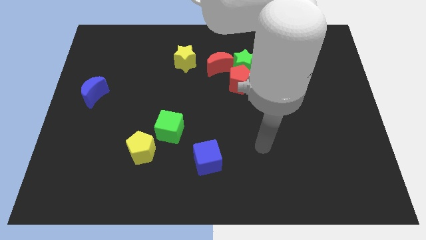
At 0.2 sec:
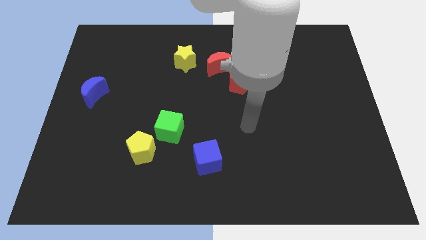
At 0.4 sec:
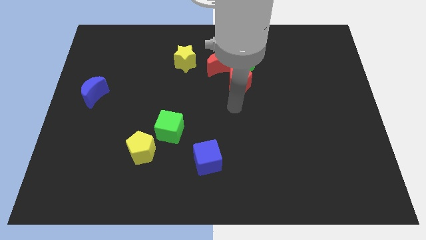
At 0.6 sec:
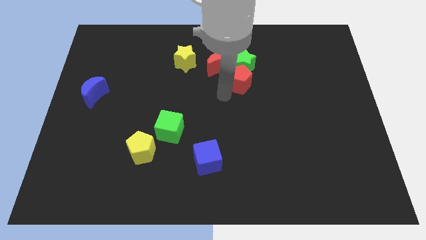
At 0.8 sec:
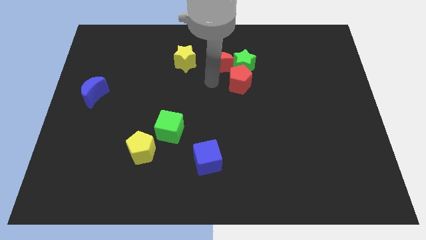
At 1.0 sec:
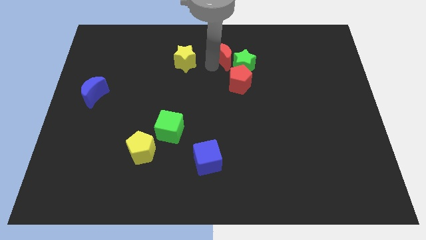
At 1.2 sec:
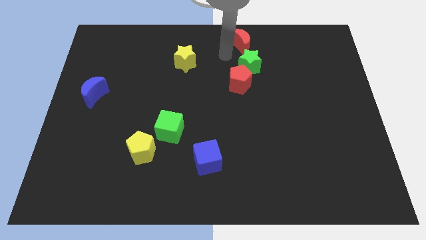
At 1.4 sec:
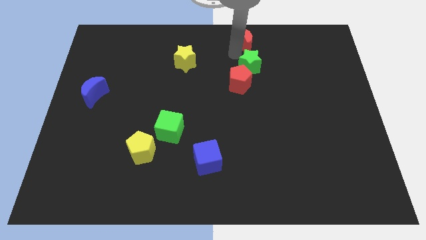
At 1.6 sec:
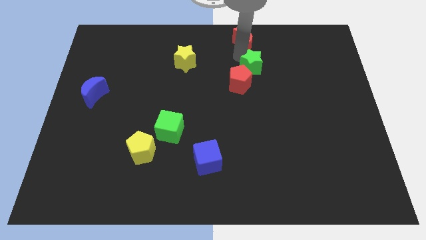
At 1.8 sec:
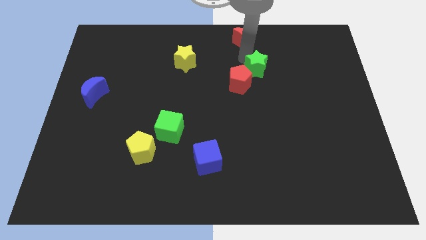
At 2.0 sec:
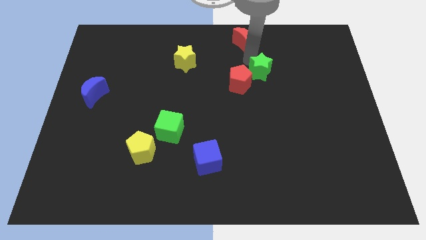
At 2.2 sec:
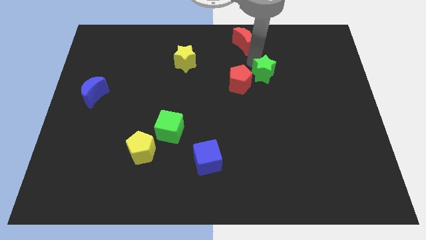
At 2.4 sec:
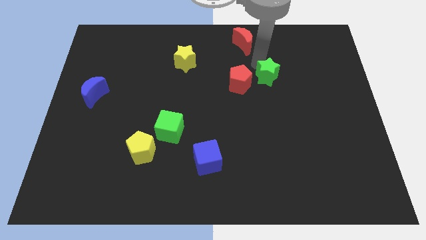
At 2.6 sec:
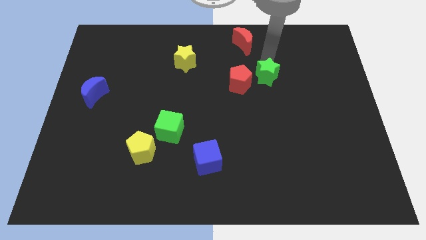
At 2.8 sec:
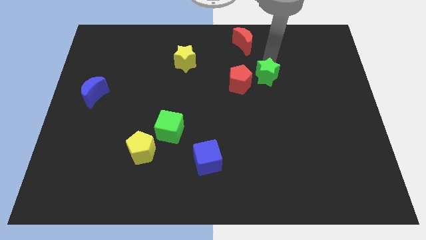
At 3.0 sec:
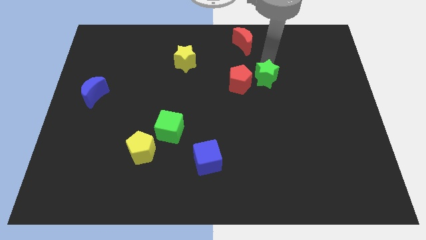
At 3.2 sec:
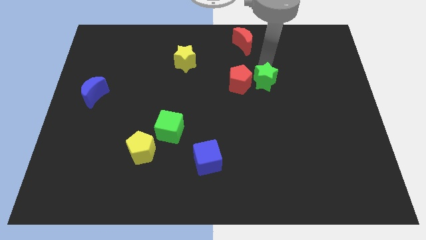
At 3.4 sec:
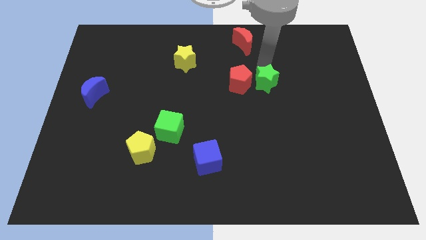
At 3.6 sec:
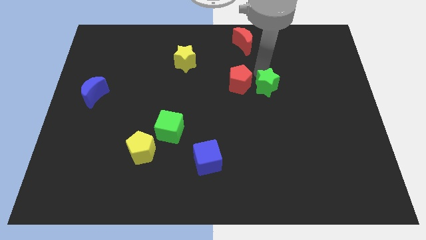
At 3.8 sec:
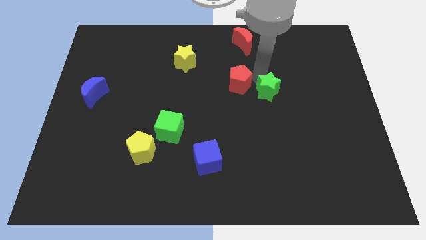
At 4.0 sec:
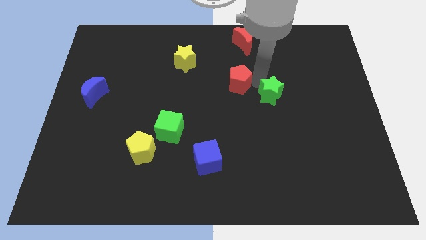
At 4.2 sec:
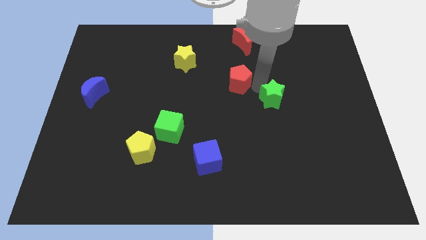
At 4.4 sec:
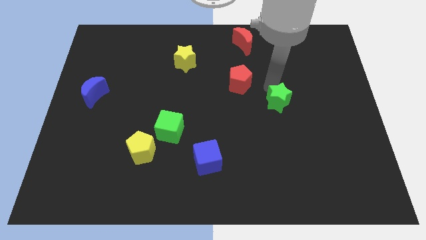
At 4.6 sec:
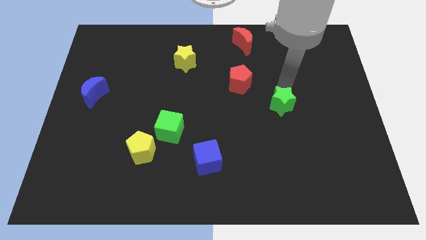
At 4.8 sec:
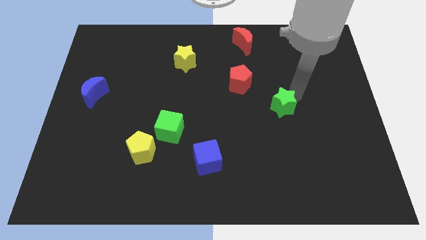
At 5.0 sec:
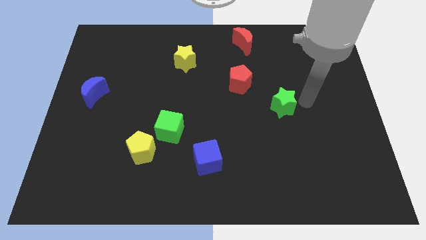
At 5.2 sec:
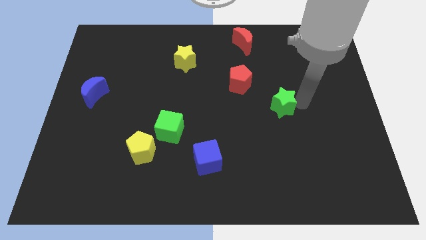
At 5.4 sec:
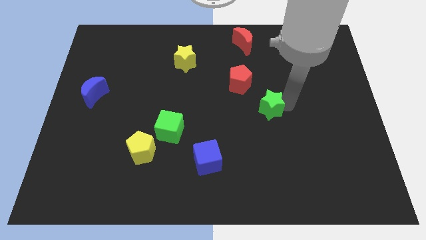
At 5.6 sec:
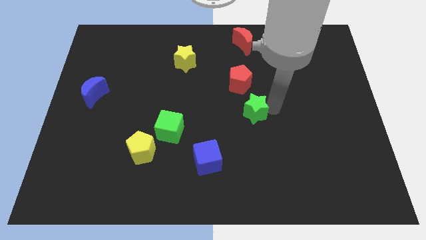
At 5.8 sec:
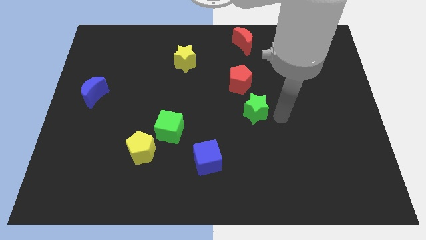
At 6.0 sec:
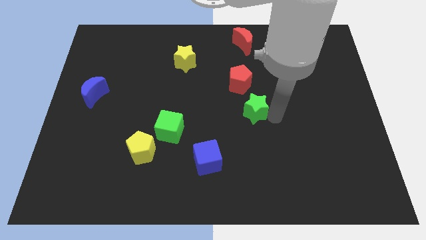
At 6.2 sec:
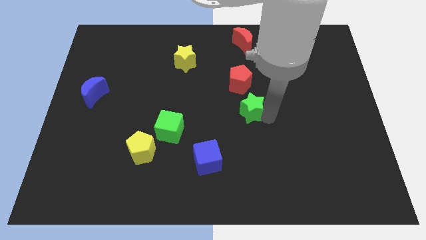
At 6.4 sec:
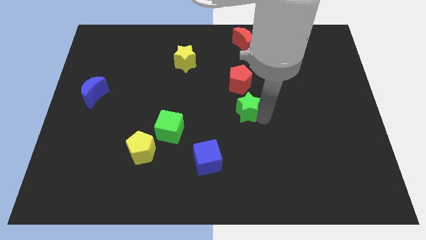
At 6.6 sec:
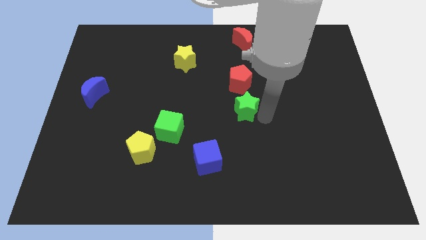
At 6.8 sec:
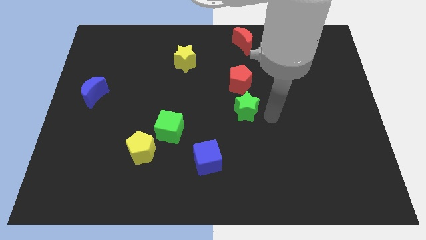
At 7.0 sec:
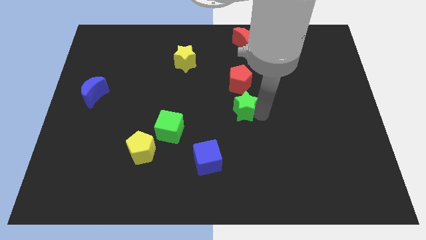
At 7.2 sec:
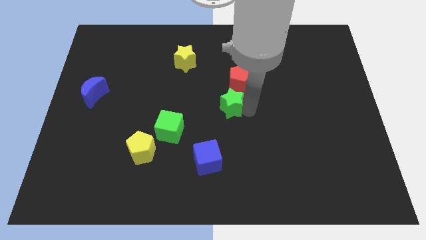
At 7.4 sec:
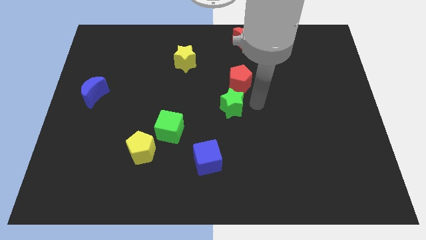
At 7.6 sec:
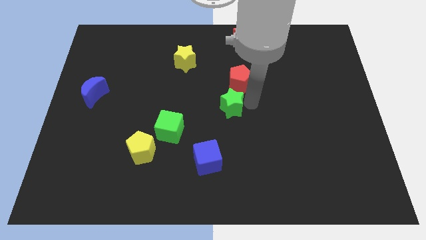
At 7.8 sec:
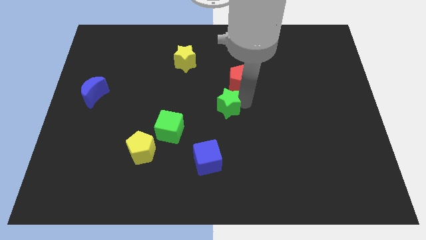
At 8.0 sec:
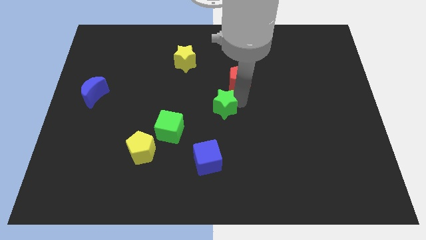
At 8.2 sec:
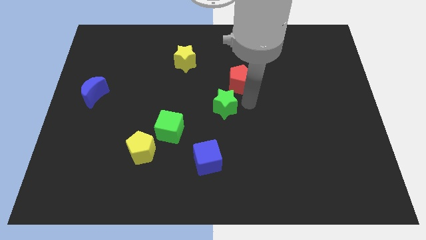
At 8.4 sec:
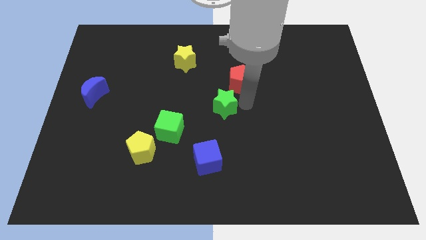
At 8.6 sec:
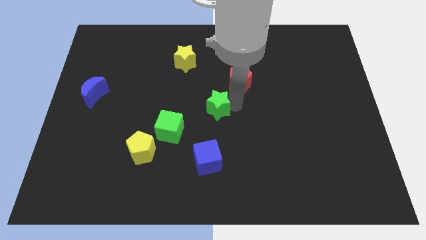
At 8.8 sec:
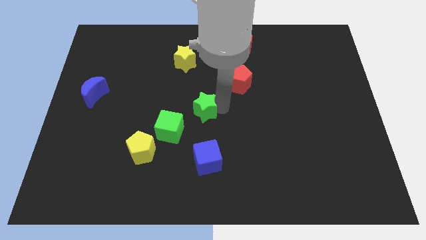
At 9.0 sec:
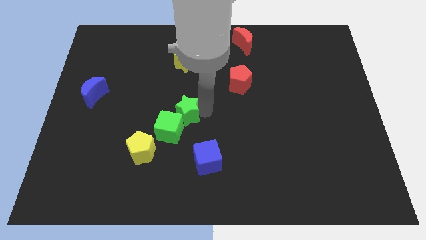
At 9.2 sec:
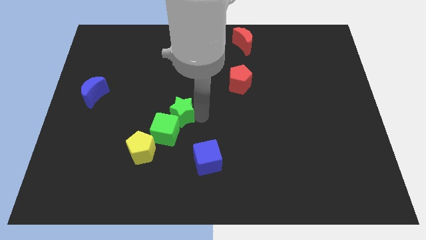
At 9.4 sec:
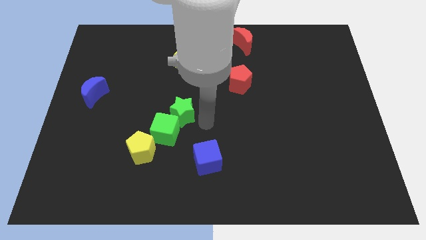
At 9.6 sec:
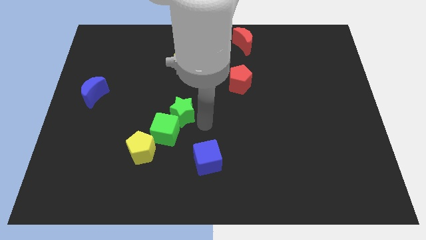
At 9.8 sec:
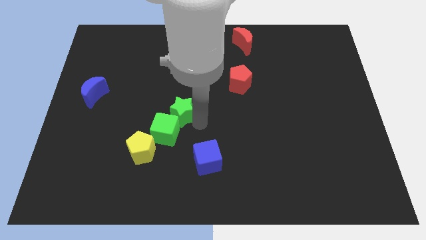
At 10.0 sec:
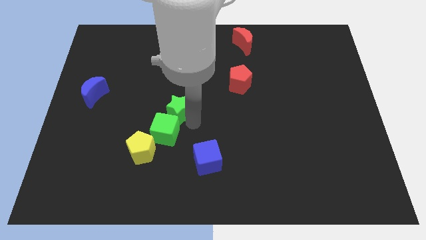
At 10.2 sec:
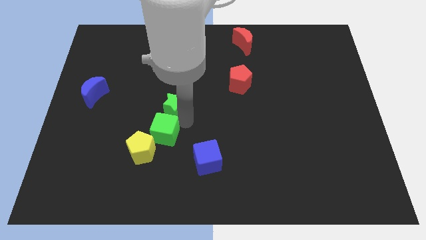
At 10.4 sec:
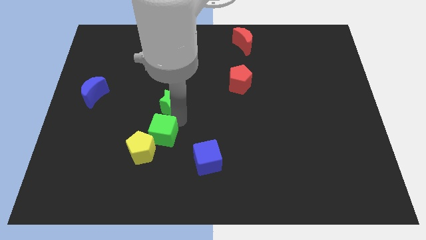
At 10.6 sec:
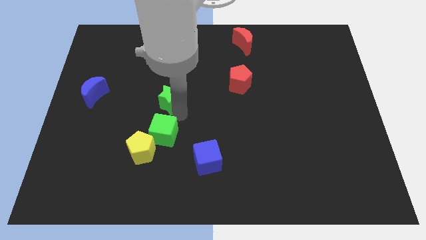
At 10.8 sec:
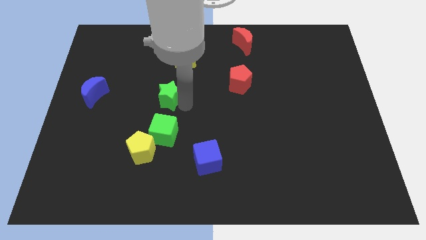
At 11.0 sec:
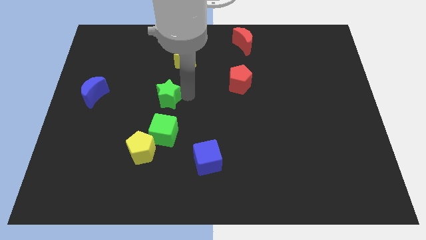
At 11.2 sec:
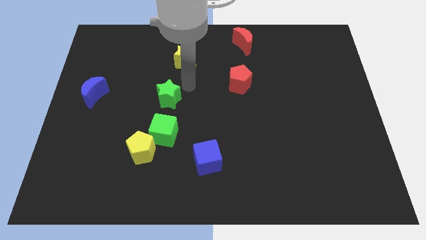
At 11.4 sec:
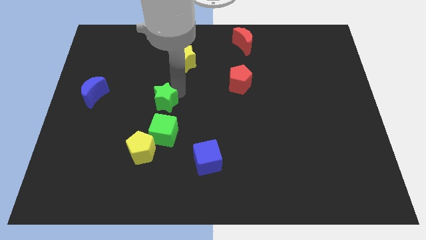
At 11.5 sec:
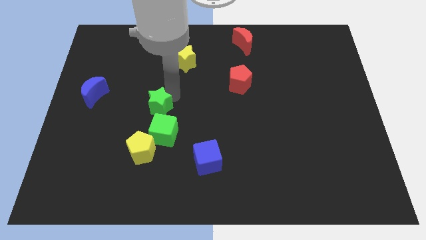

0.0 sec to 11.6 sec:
put the green star to the top left side of the green cube
